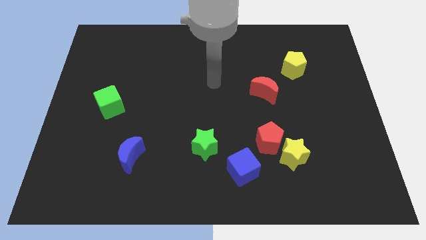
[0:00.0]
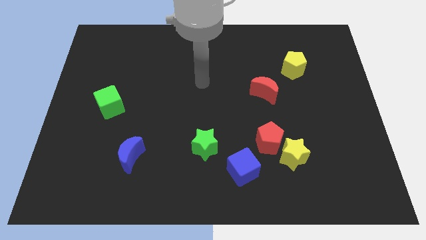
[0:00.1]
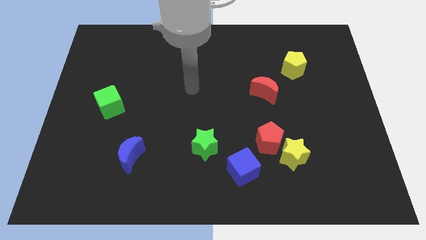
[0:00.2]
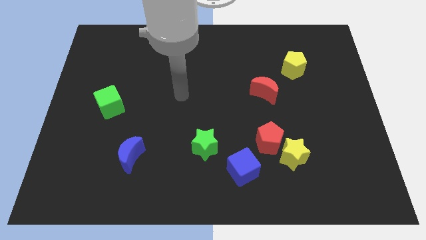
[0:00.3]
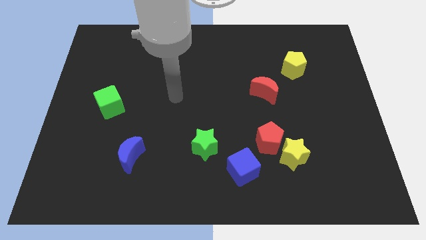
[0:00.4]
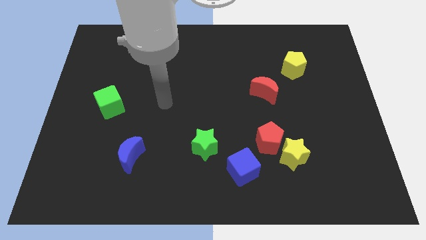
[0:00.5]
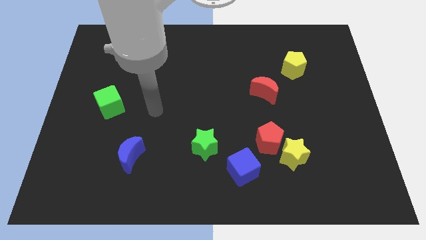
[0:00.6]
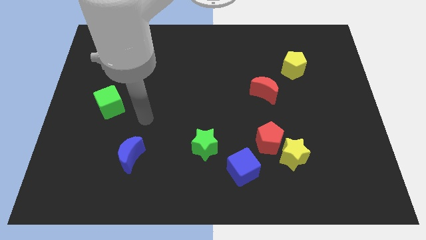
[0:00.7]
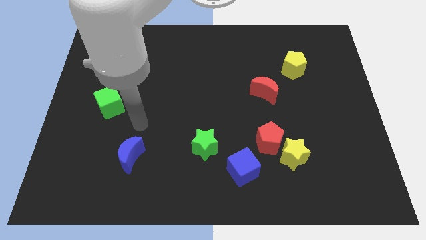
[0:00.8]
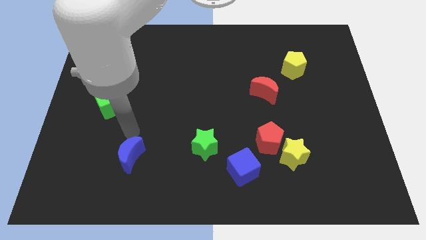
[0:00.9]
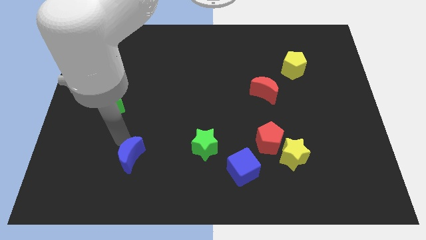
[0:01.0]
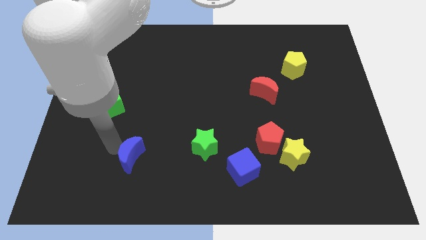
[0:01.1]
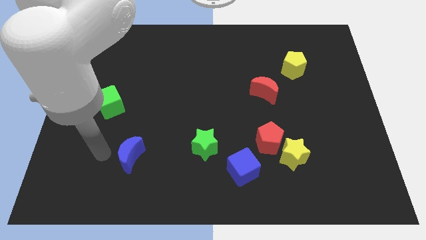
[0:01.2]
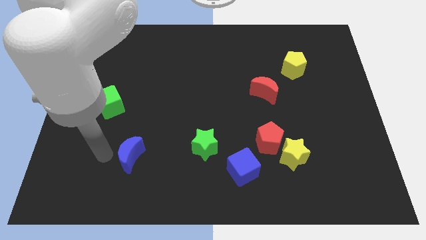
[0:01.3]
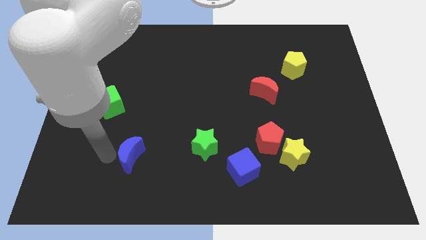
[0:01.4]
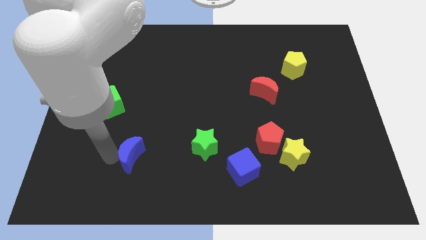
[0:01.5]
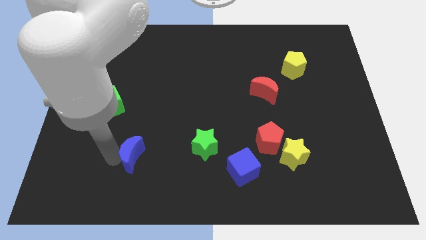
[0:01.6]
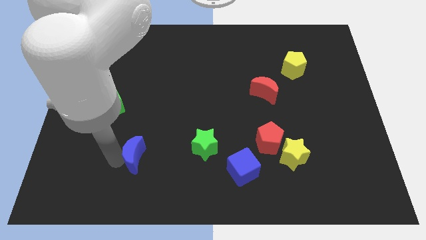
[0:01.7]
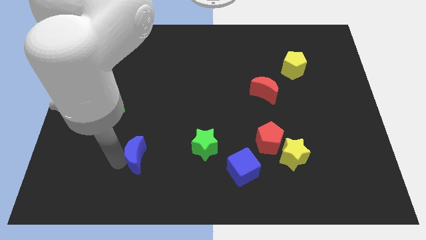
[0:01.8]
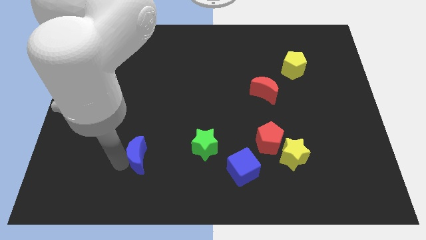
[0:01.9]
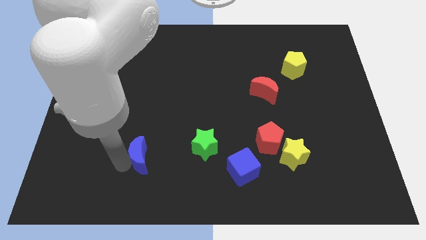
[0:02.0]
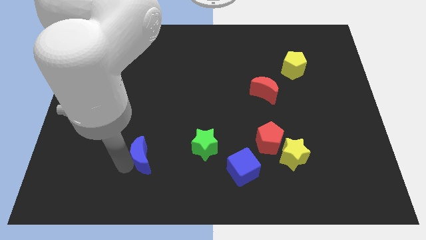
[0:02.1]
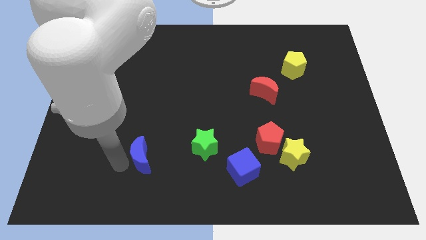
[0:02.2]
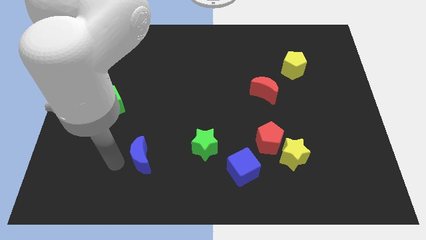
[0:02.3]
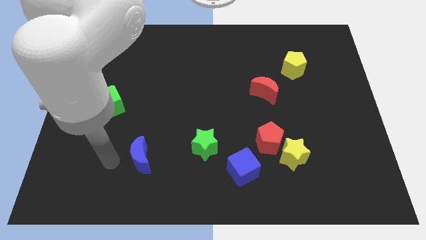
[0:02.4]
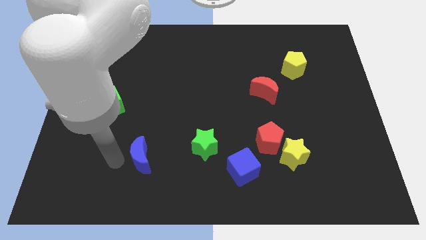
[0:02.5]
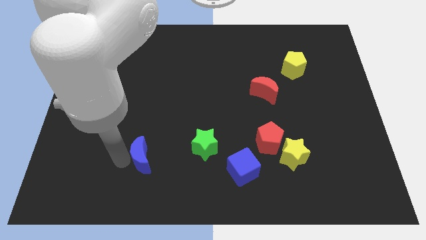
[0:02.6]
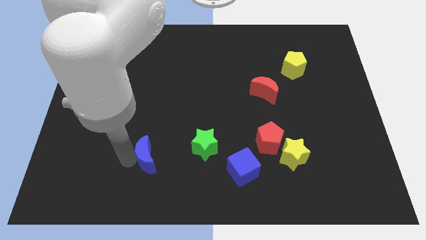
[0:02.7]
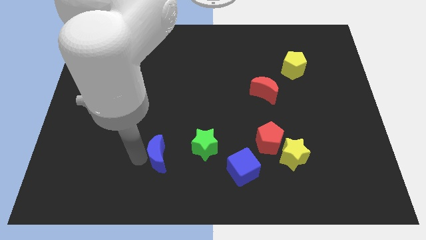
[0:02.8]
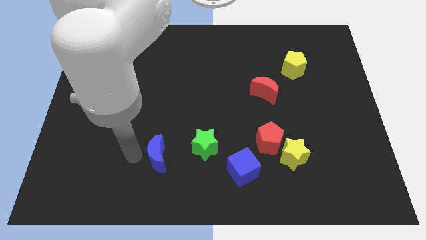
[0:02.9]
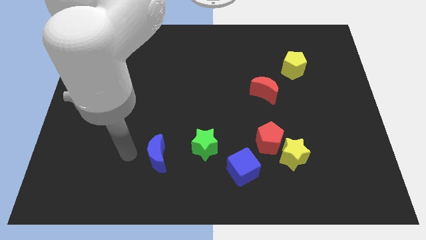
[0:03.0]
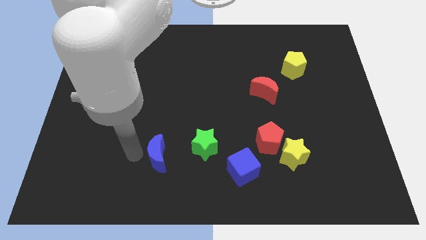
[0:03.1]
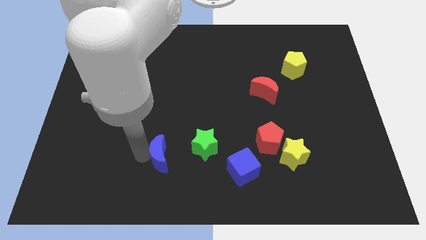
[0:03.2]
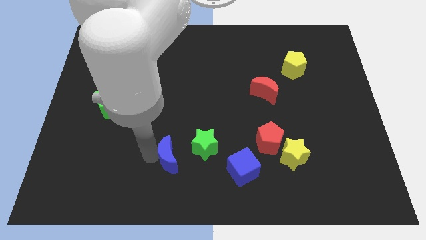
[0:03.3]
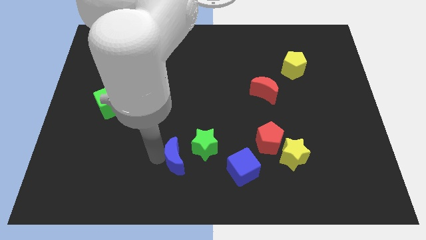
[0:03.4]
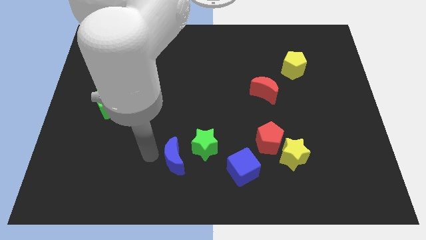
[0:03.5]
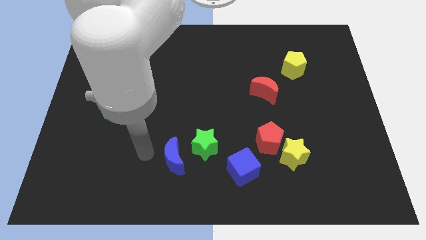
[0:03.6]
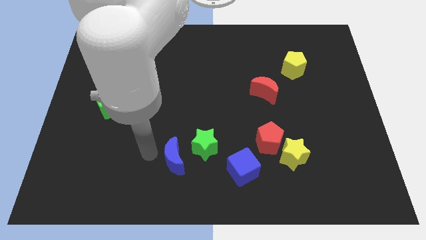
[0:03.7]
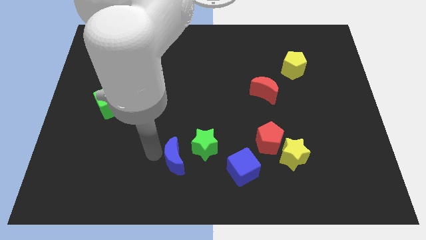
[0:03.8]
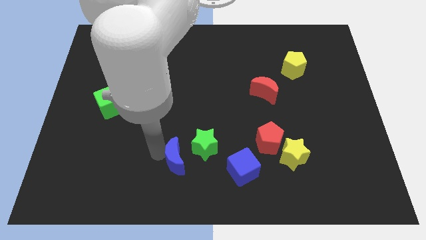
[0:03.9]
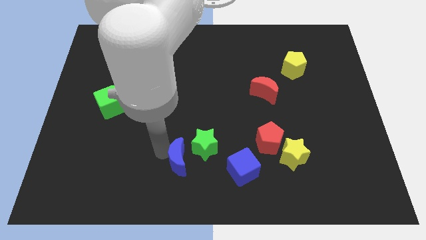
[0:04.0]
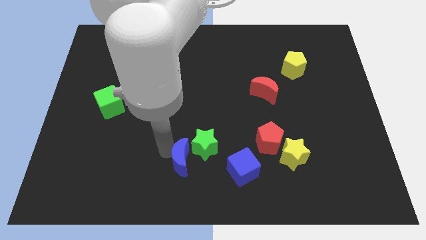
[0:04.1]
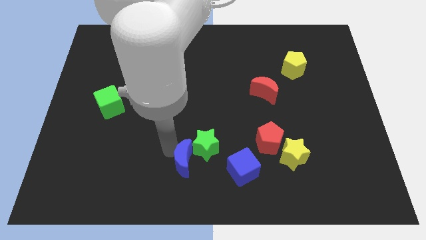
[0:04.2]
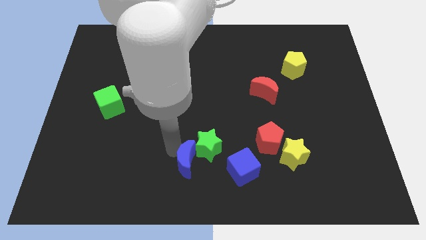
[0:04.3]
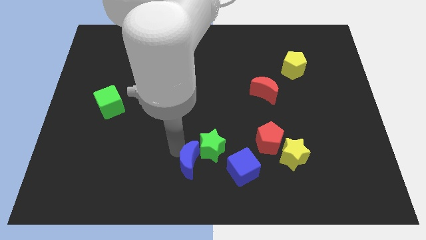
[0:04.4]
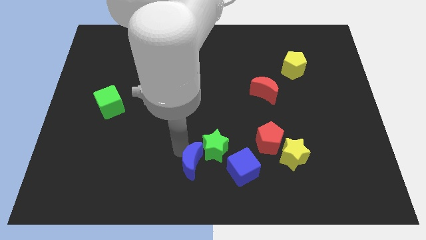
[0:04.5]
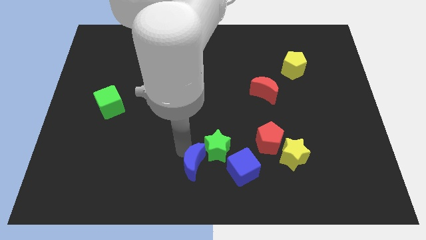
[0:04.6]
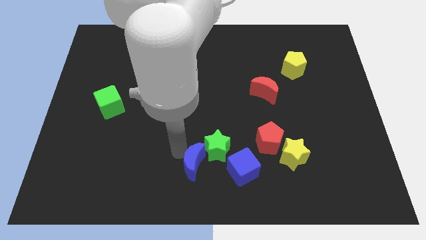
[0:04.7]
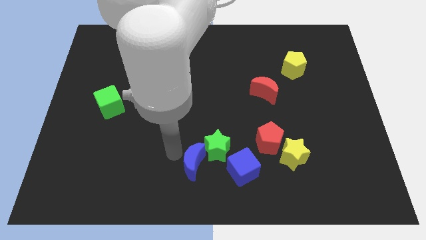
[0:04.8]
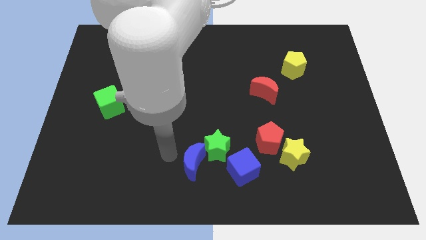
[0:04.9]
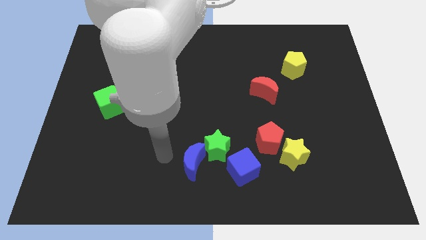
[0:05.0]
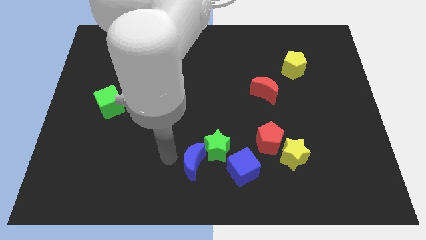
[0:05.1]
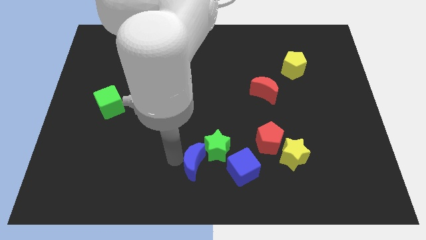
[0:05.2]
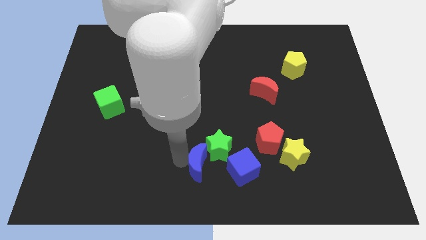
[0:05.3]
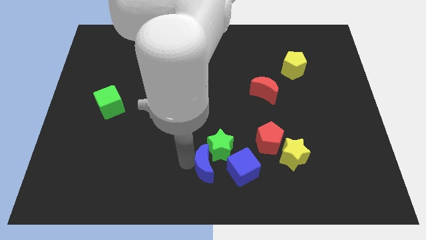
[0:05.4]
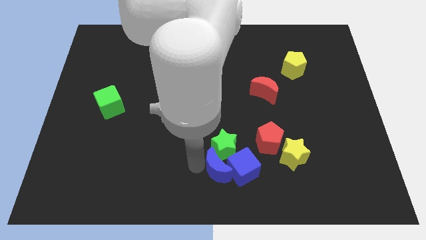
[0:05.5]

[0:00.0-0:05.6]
push the blue moon next to the blue cube

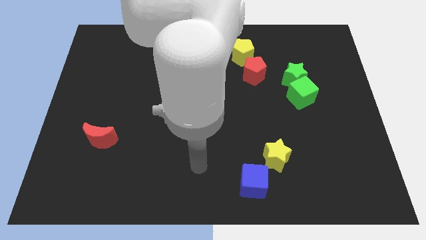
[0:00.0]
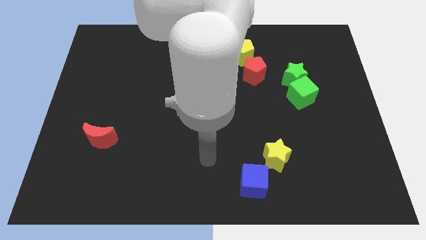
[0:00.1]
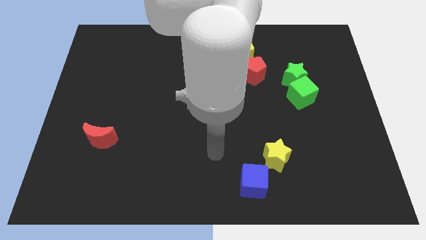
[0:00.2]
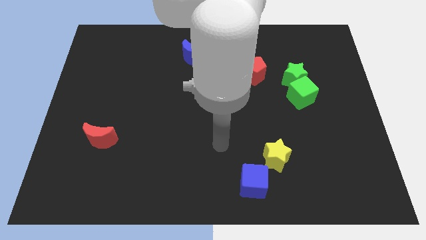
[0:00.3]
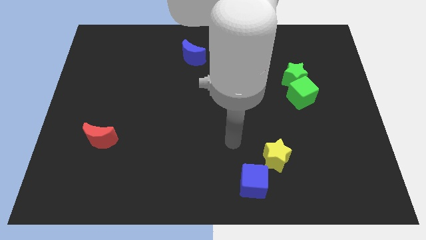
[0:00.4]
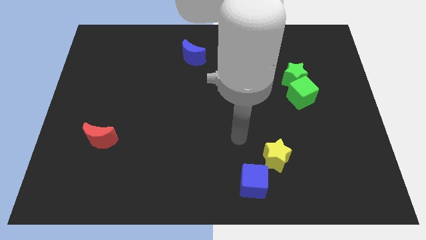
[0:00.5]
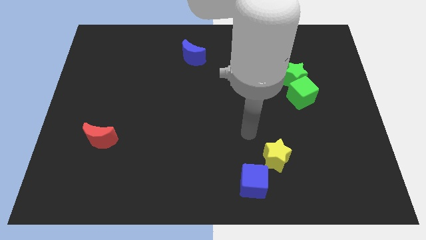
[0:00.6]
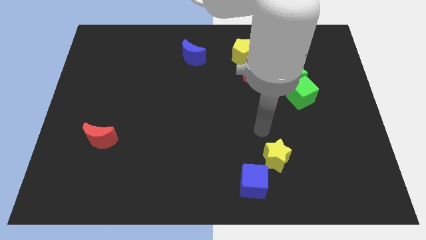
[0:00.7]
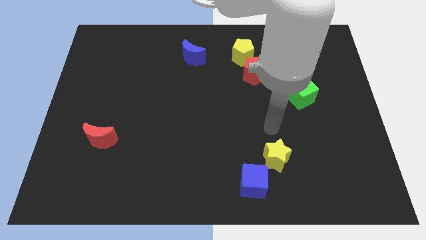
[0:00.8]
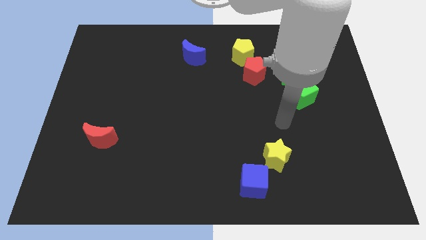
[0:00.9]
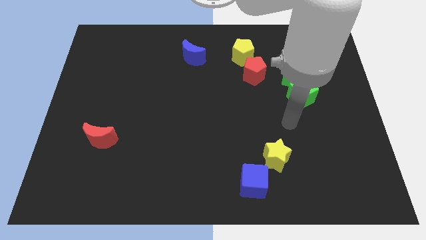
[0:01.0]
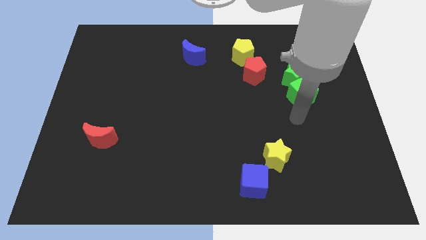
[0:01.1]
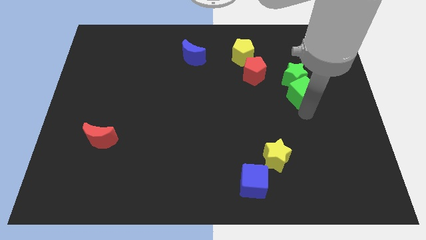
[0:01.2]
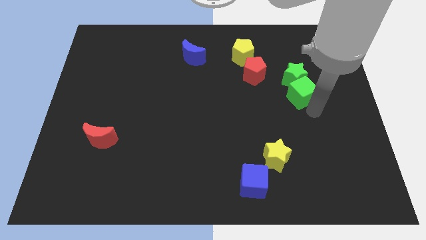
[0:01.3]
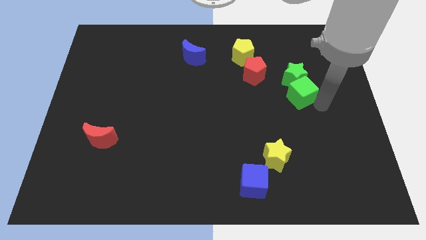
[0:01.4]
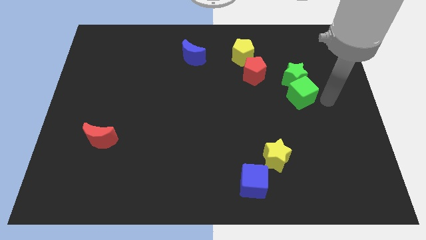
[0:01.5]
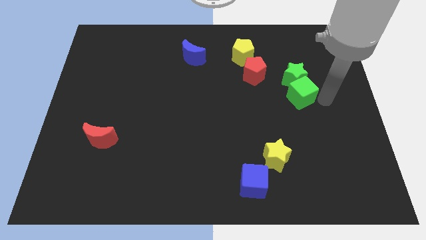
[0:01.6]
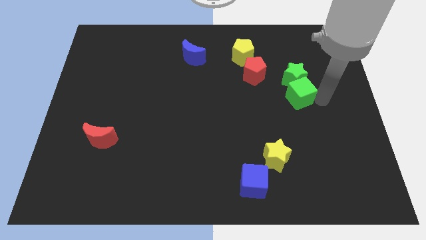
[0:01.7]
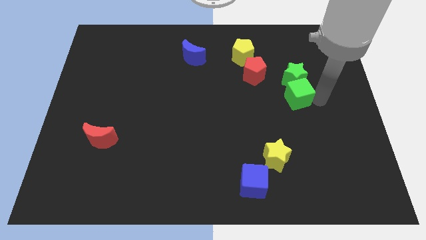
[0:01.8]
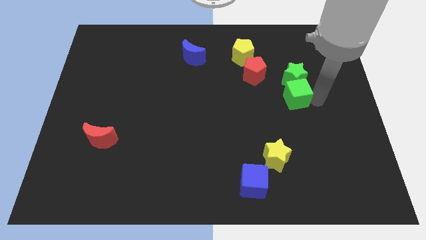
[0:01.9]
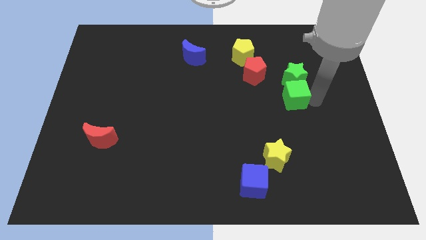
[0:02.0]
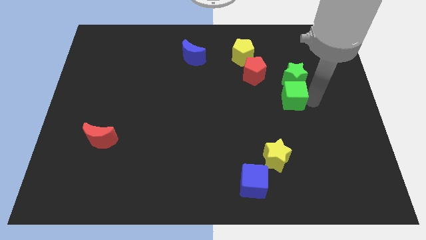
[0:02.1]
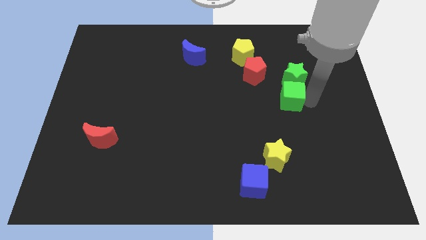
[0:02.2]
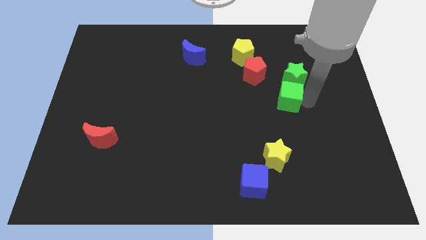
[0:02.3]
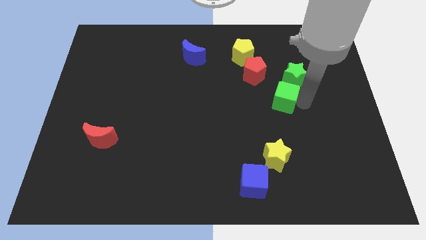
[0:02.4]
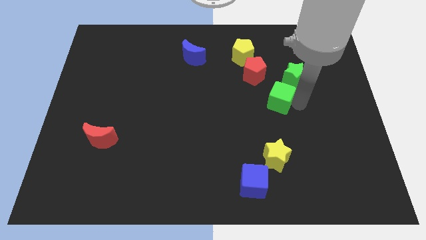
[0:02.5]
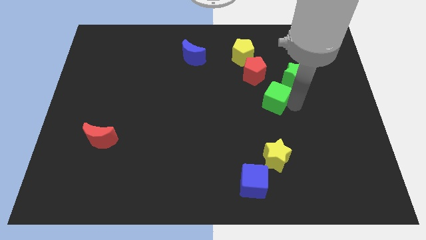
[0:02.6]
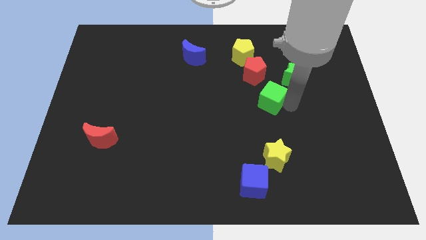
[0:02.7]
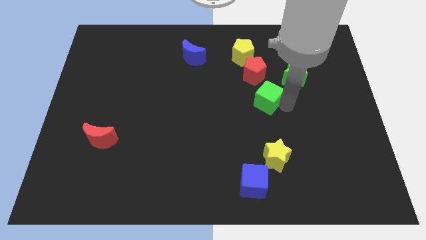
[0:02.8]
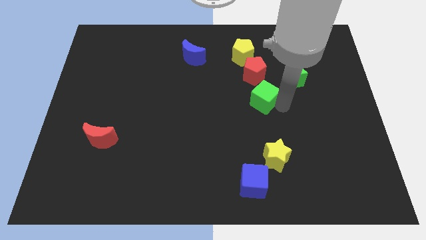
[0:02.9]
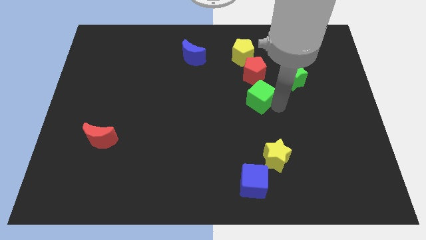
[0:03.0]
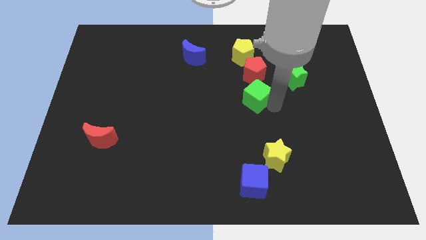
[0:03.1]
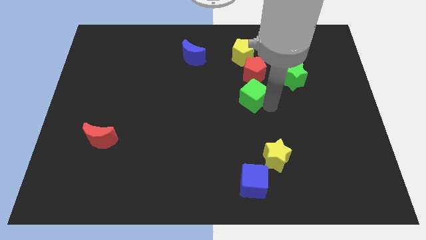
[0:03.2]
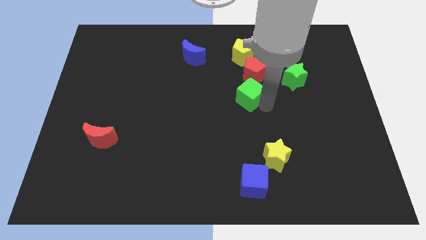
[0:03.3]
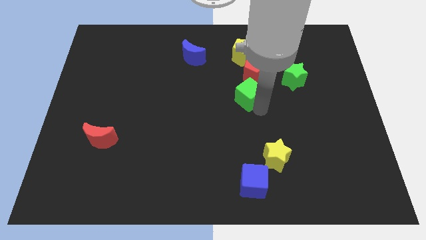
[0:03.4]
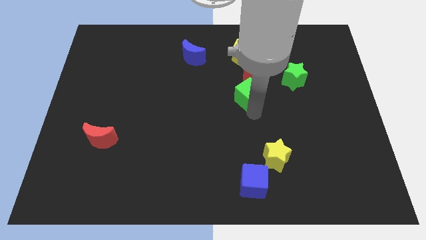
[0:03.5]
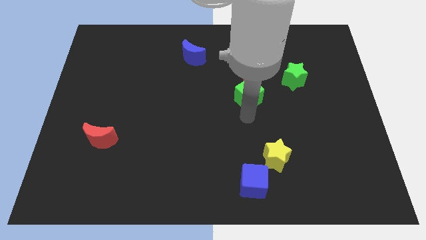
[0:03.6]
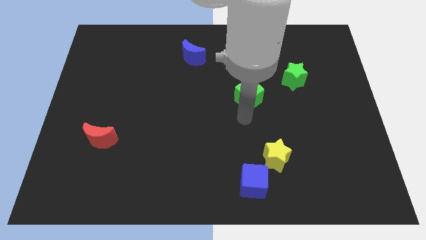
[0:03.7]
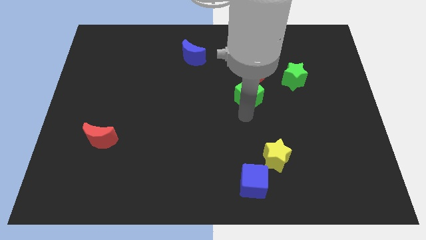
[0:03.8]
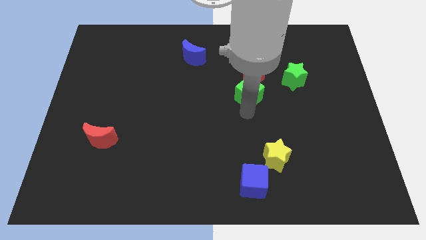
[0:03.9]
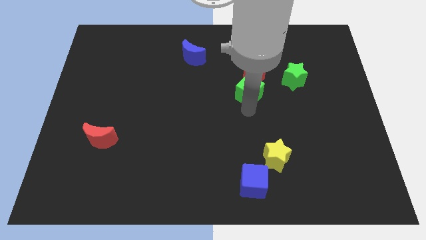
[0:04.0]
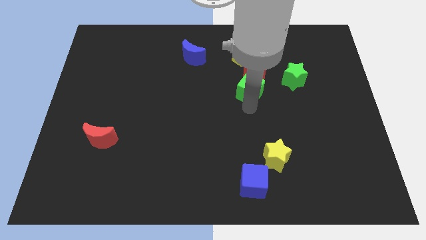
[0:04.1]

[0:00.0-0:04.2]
put the green cube close to the red pentagon
